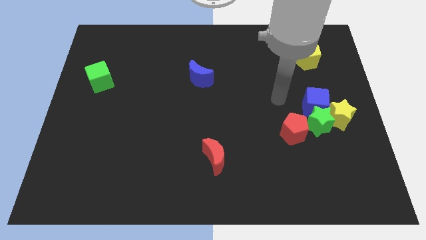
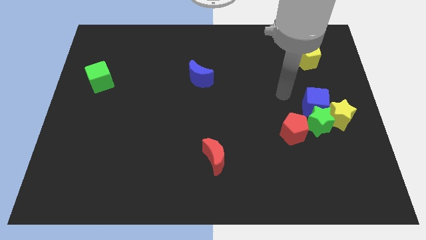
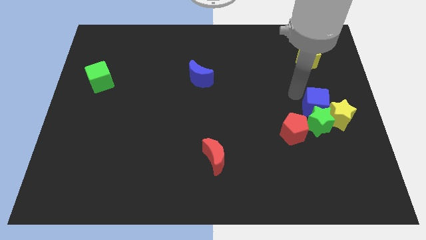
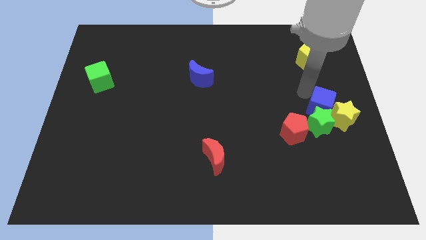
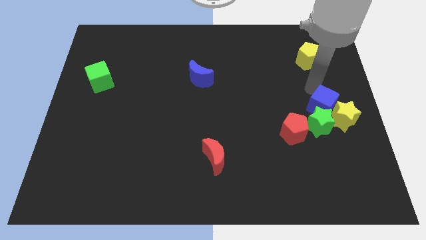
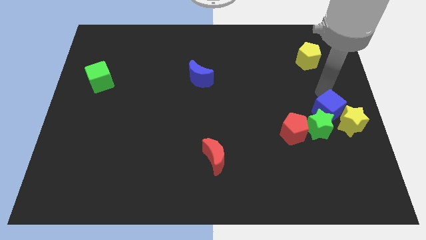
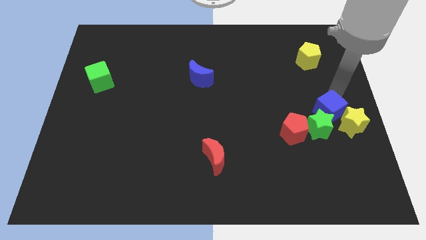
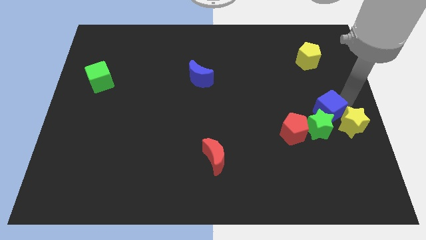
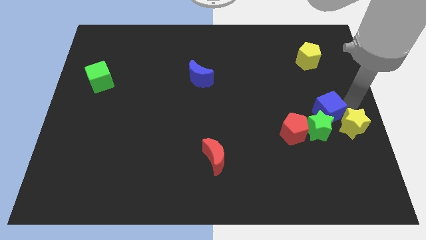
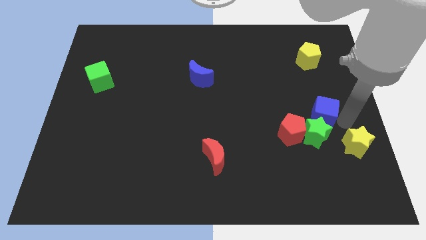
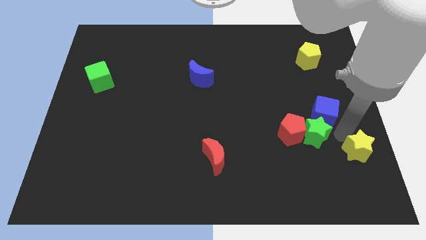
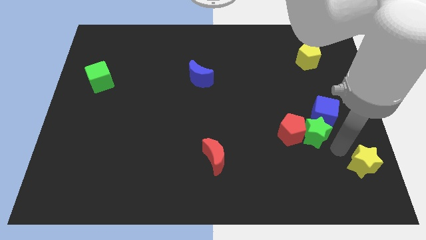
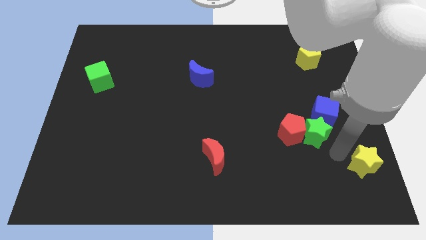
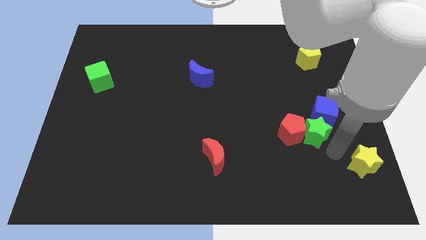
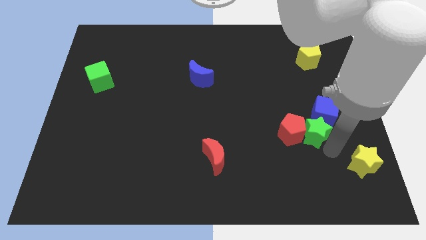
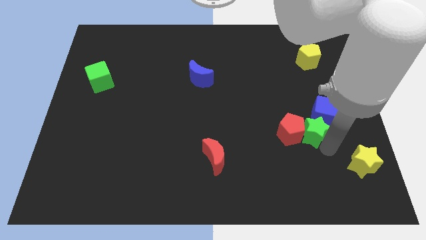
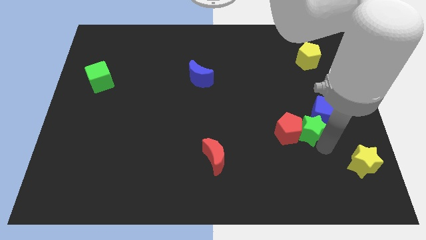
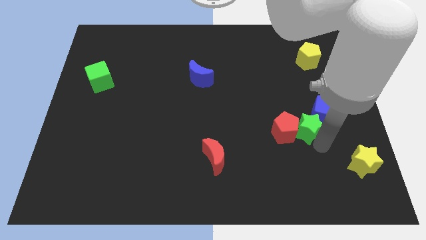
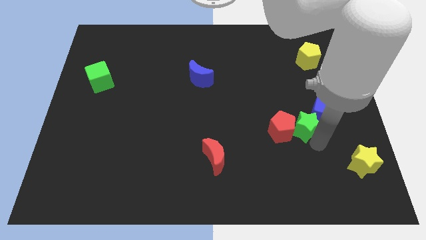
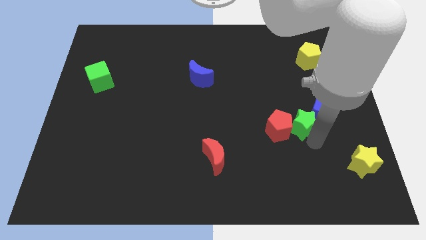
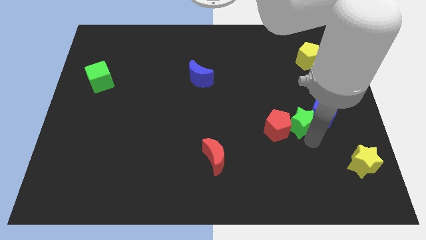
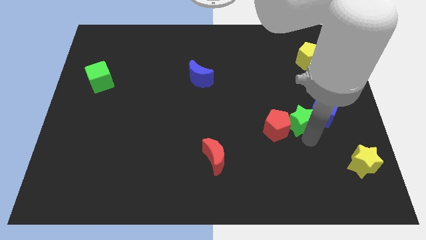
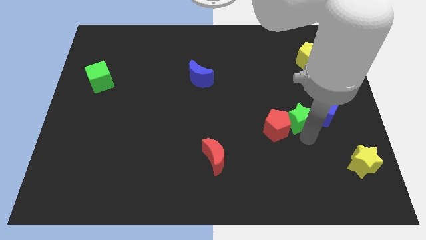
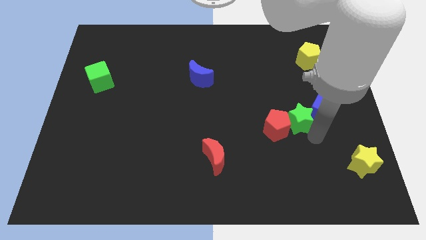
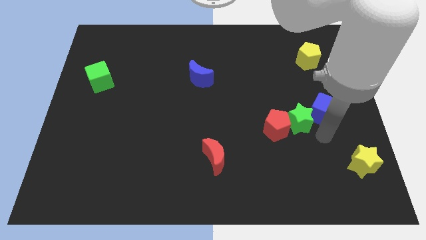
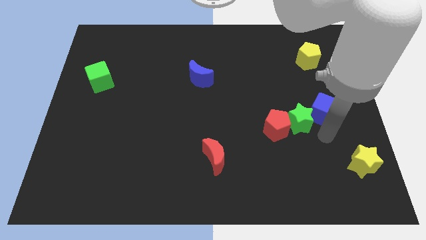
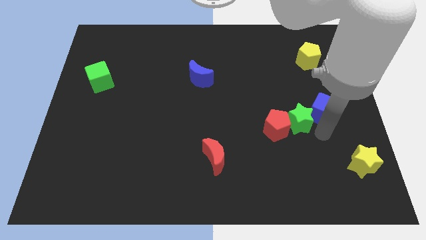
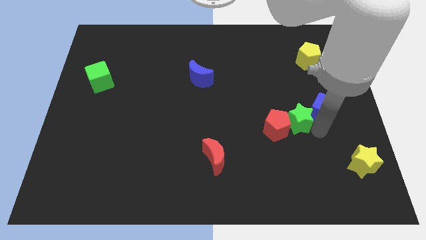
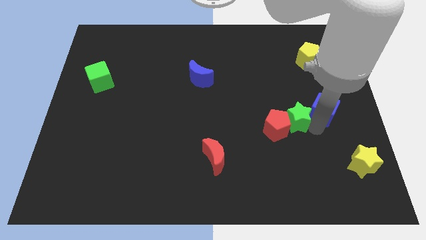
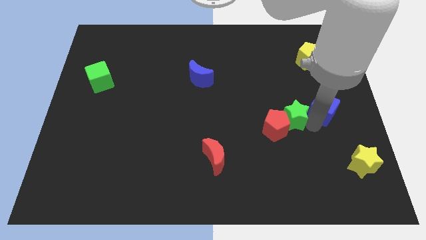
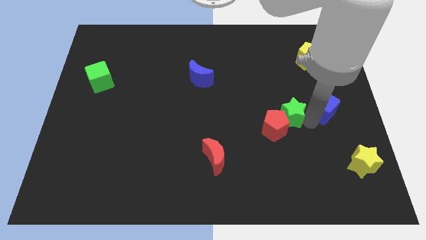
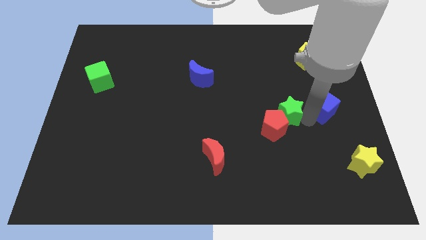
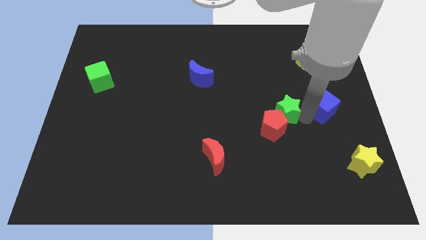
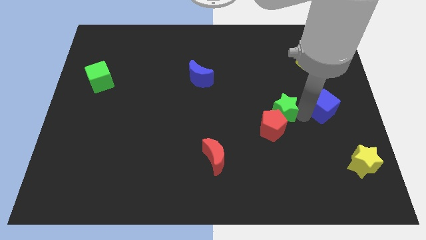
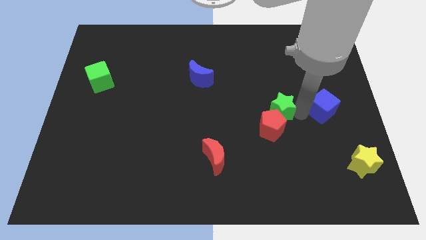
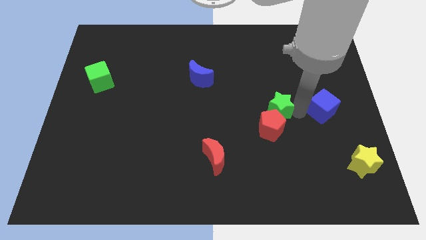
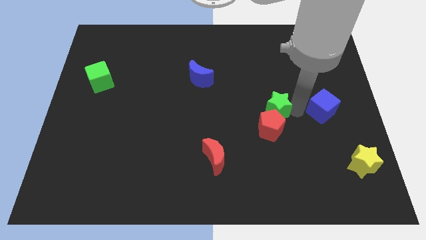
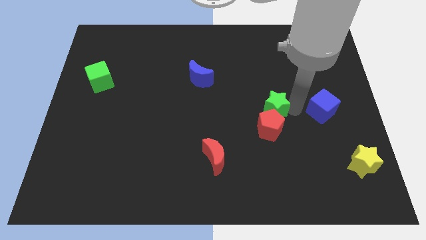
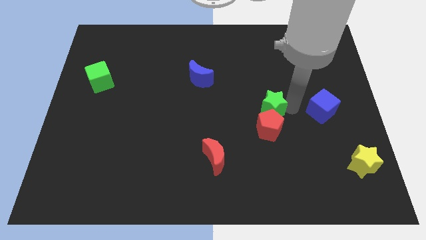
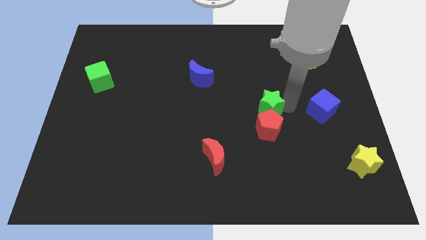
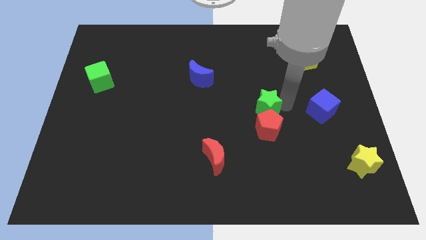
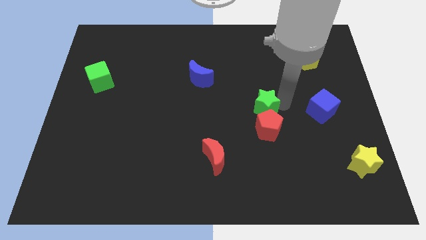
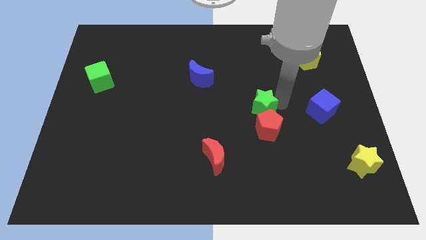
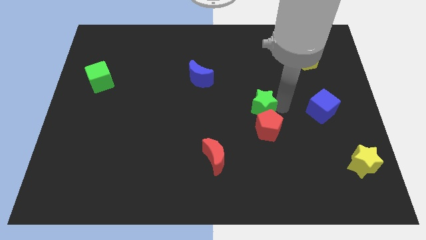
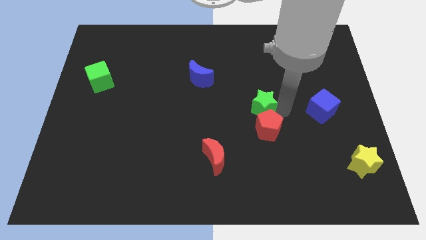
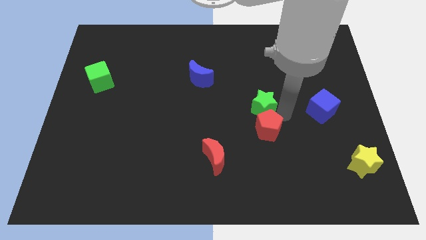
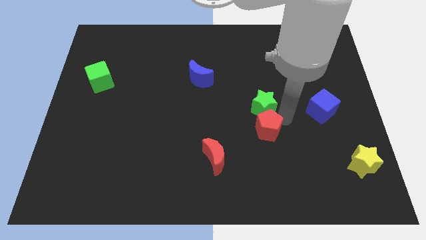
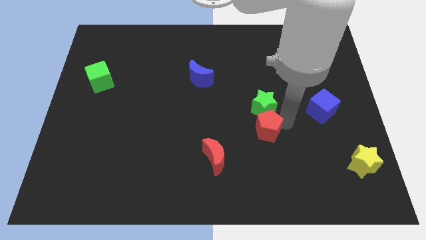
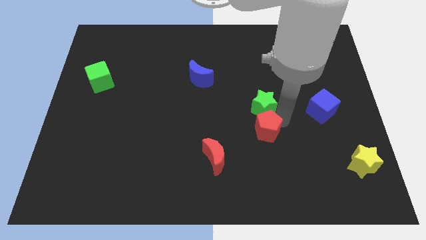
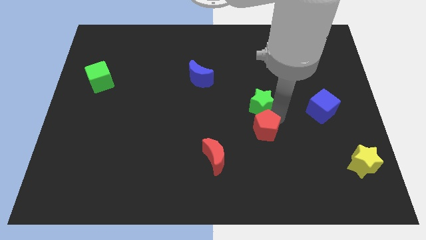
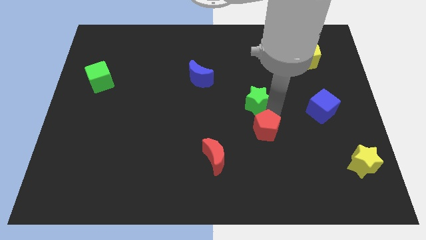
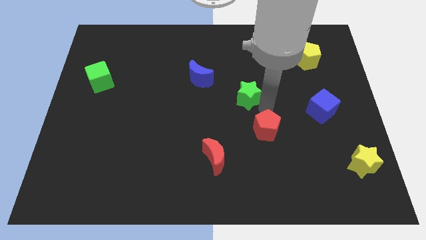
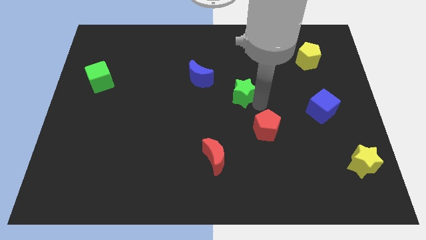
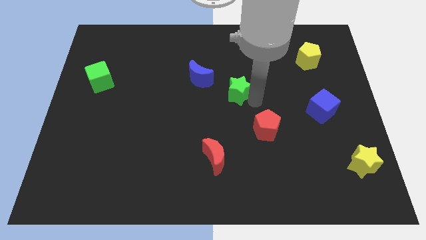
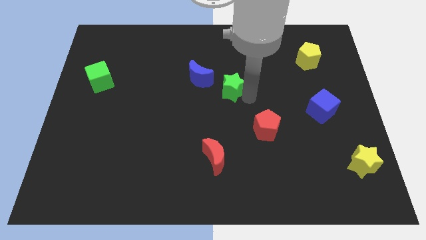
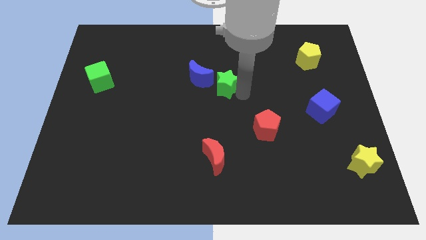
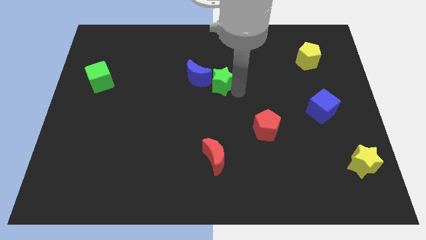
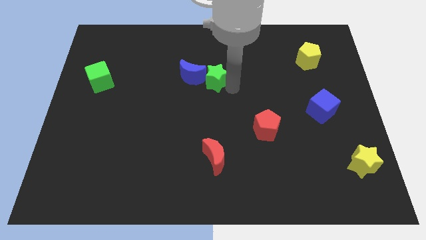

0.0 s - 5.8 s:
push the green star next to the blue moon

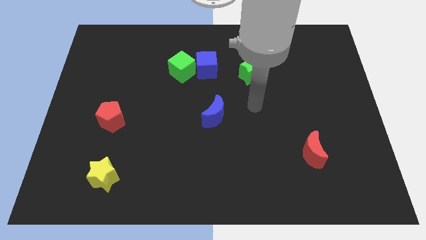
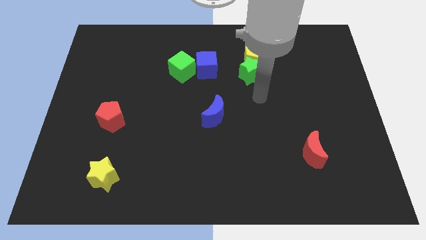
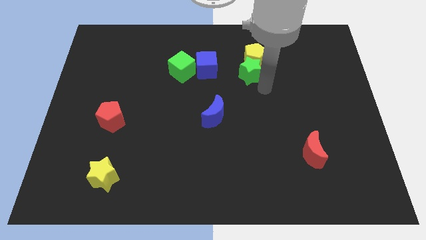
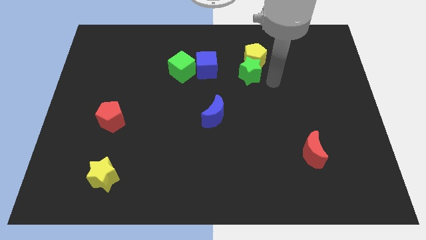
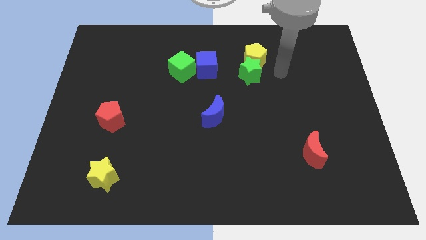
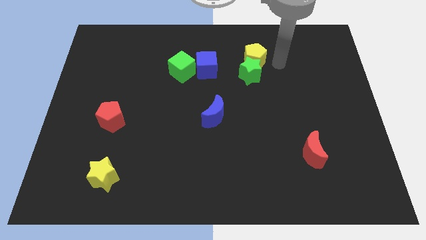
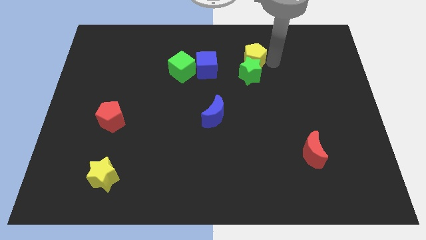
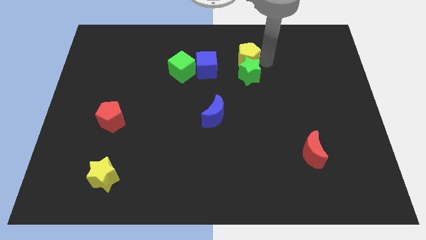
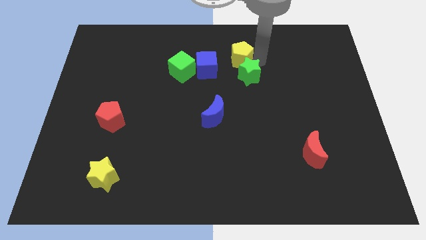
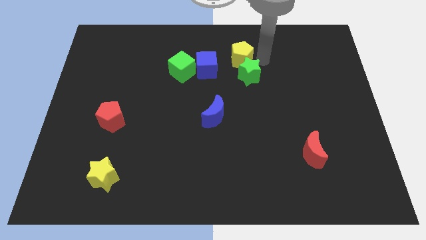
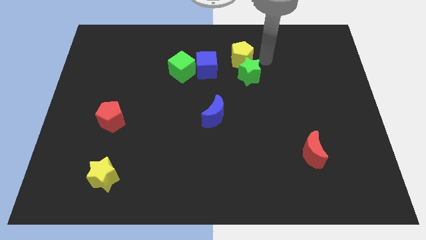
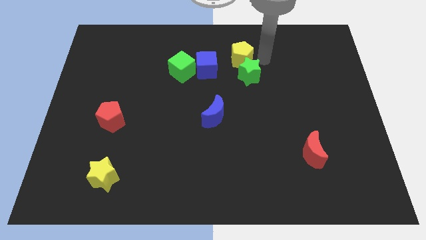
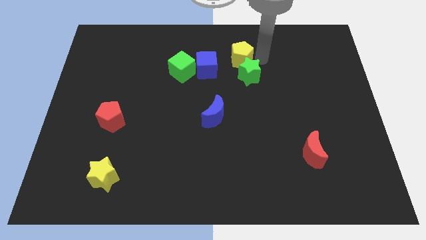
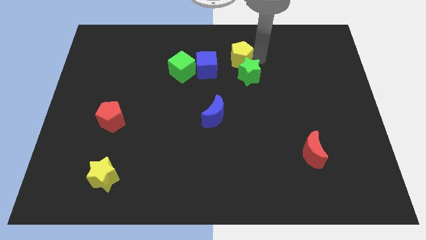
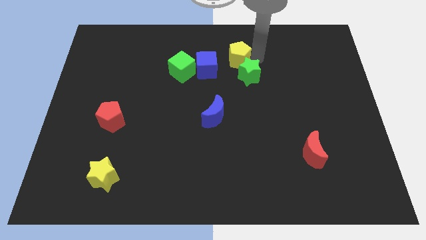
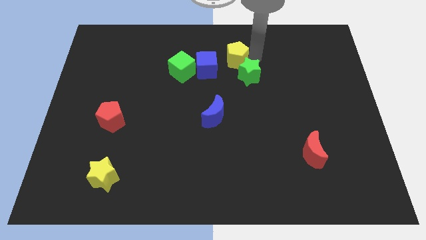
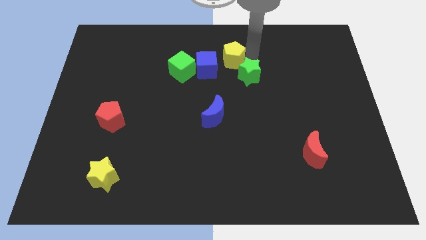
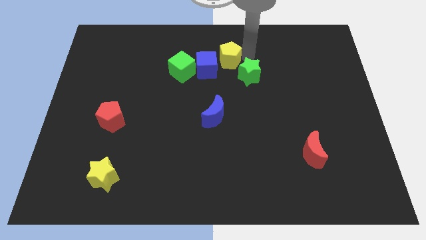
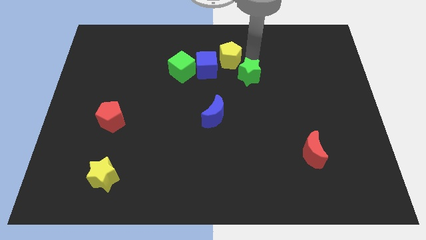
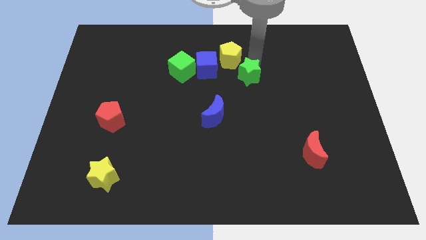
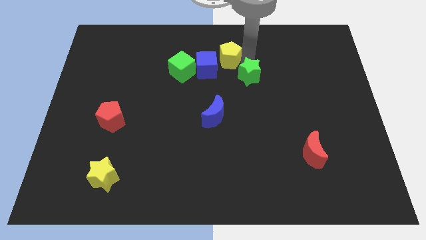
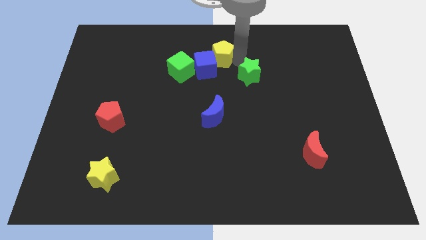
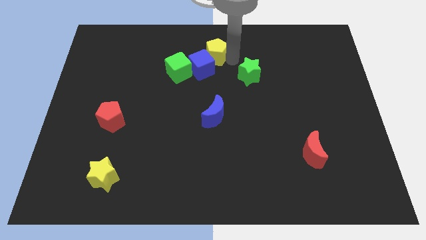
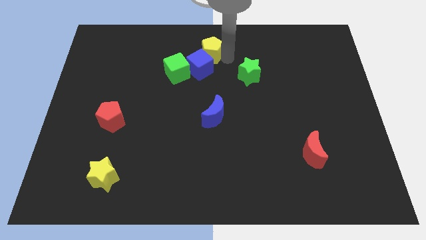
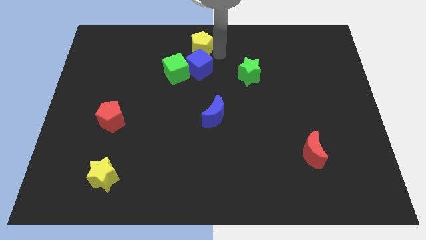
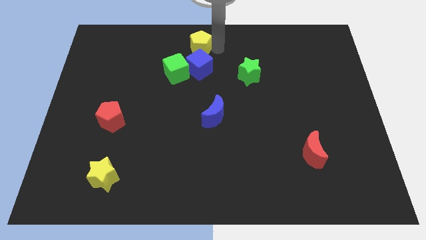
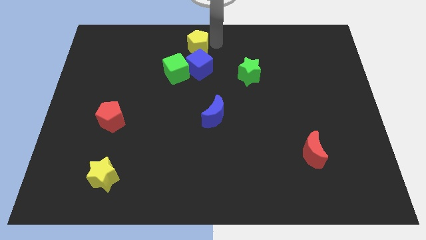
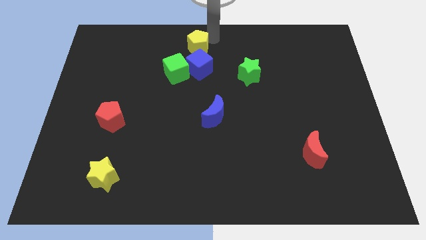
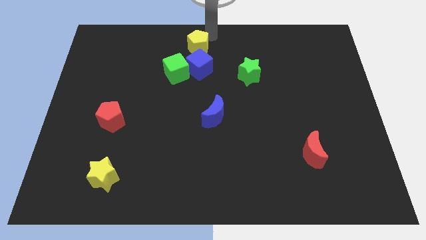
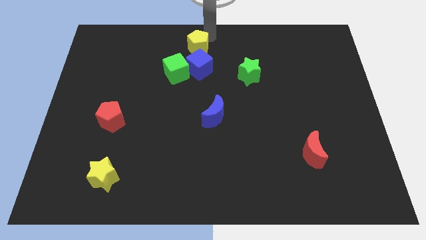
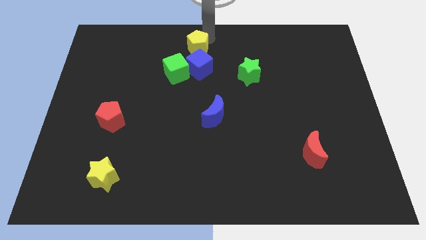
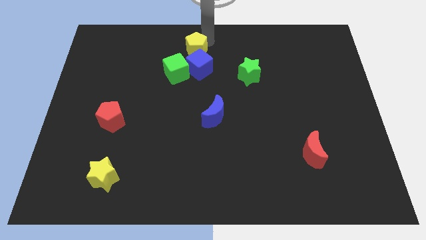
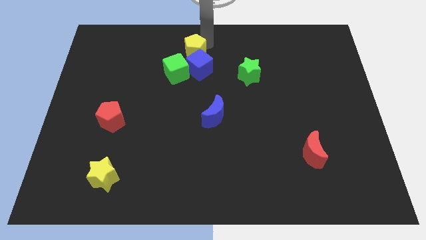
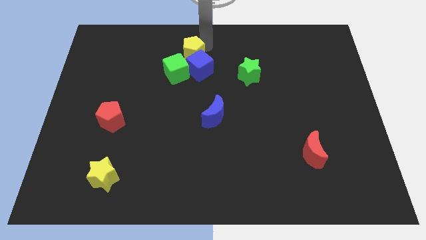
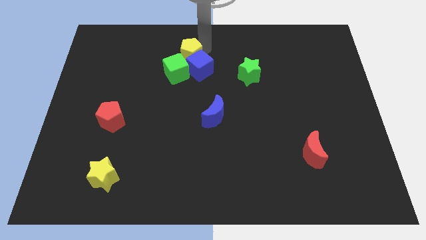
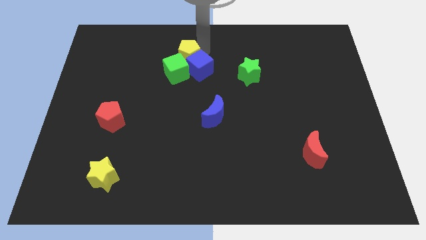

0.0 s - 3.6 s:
put the yellow pentagon to the green cube
